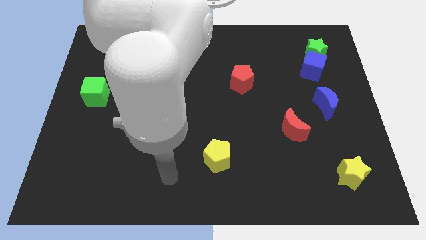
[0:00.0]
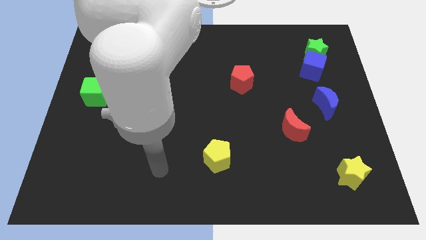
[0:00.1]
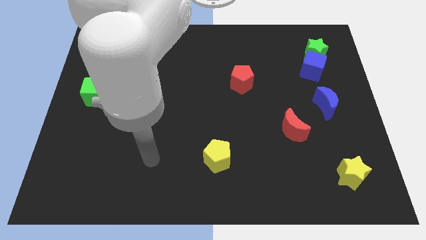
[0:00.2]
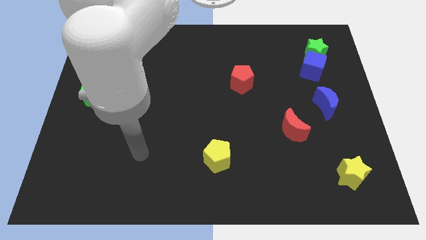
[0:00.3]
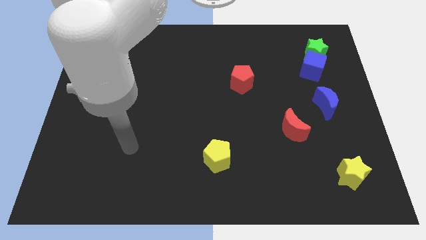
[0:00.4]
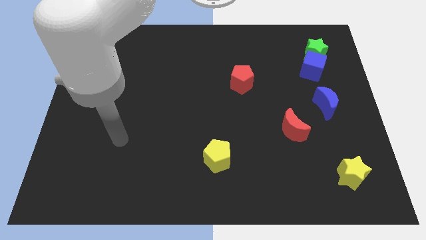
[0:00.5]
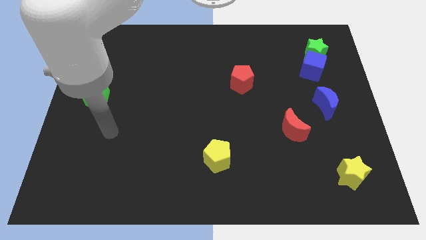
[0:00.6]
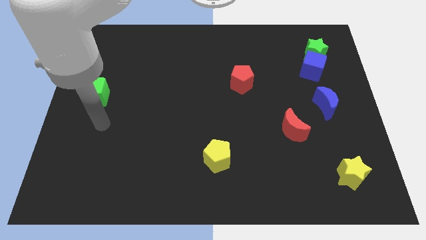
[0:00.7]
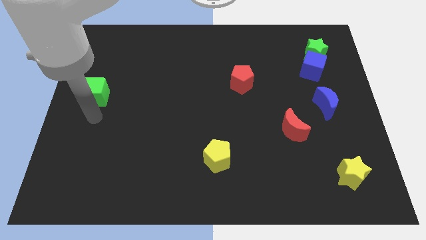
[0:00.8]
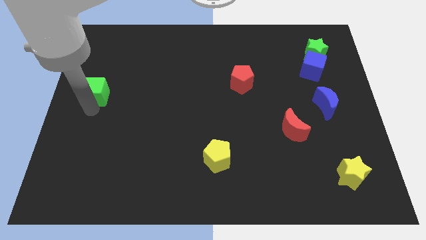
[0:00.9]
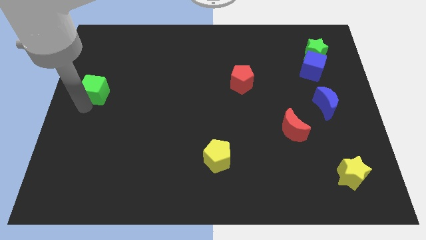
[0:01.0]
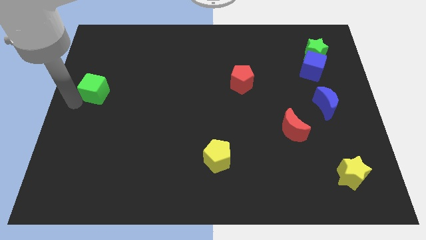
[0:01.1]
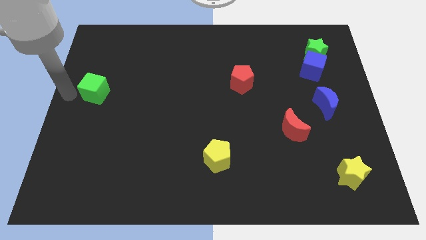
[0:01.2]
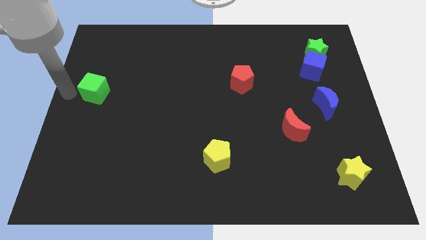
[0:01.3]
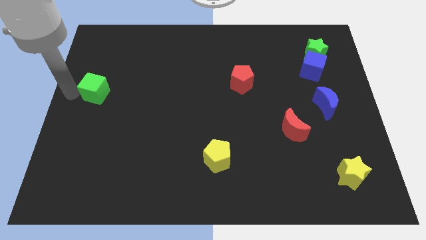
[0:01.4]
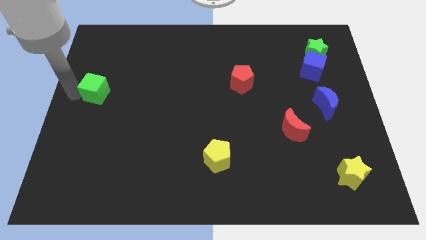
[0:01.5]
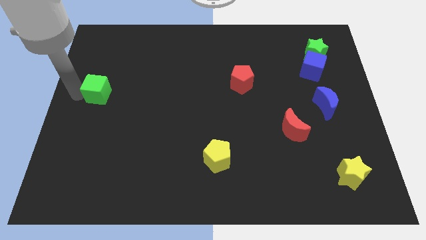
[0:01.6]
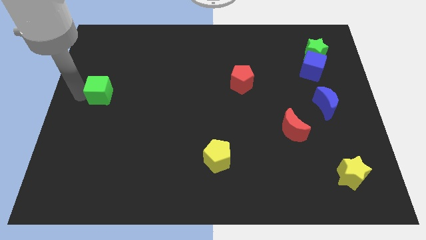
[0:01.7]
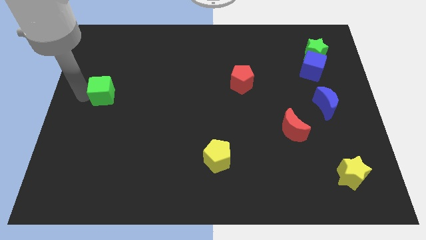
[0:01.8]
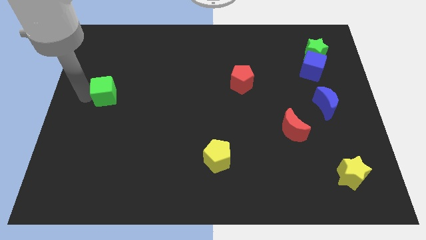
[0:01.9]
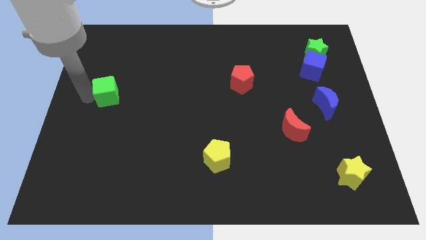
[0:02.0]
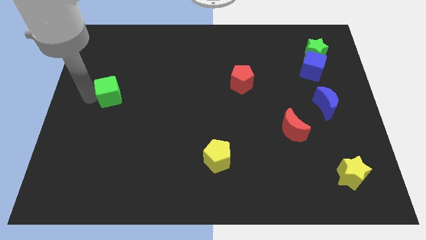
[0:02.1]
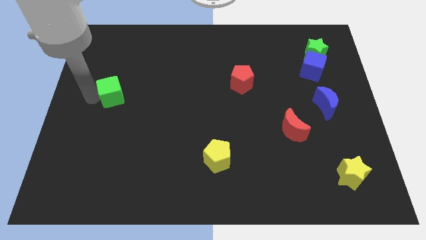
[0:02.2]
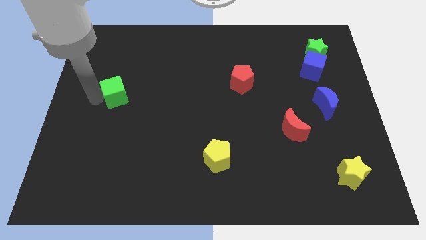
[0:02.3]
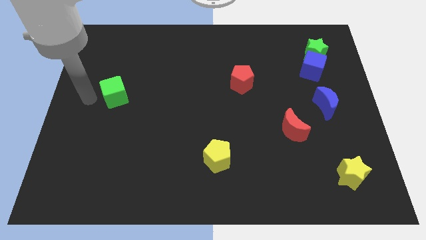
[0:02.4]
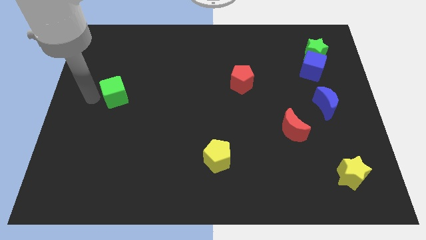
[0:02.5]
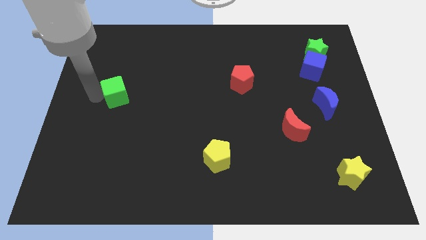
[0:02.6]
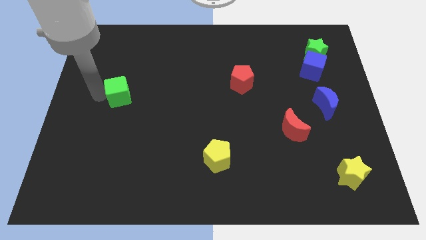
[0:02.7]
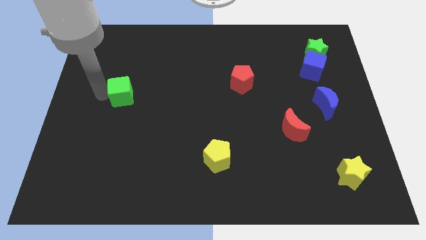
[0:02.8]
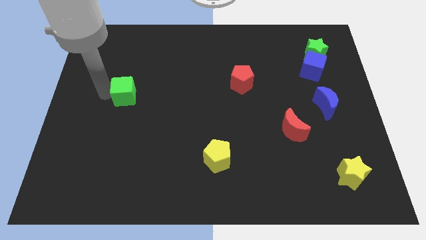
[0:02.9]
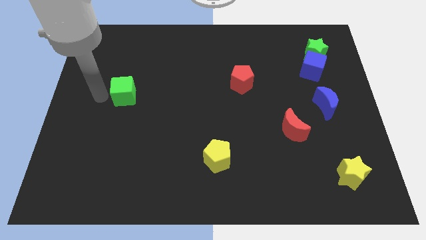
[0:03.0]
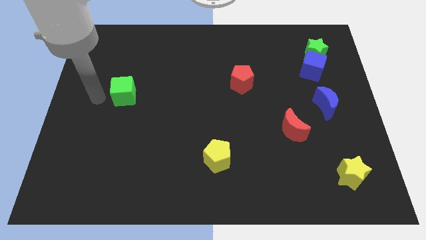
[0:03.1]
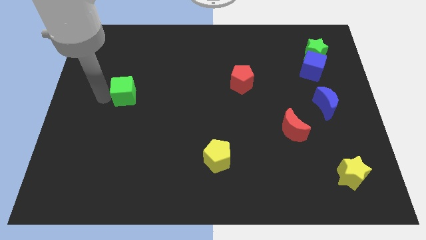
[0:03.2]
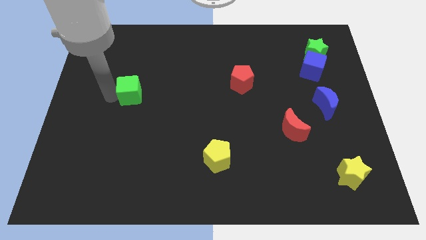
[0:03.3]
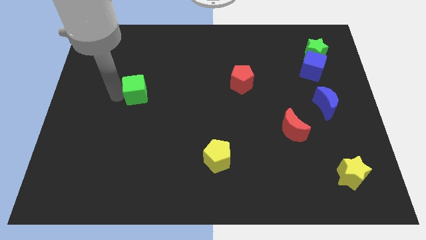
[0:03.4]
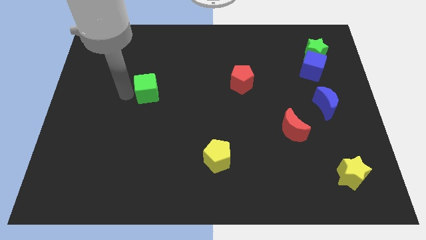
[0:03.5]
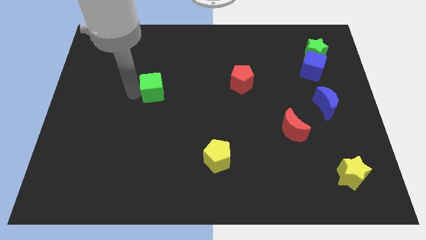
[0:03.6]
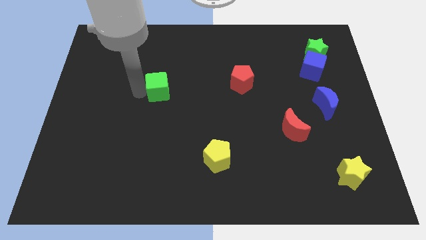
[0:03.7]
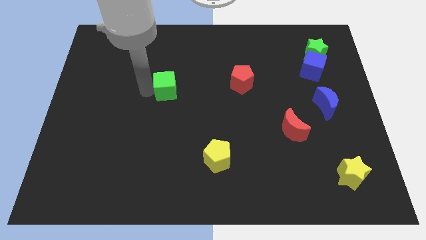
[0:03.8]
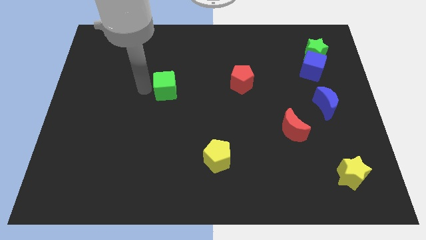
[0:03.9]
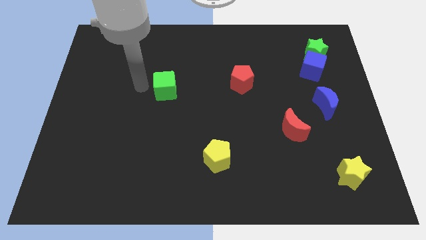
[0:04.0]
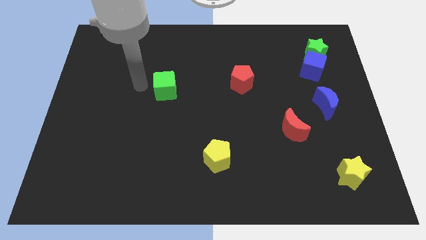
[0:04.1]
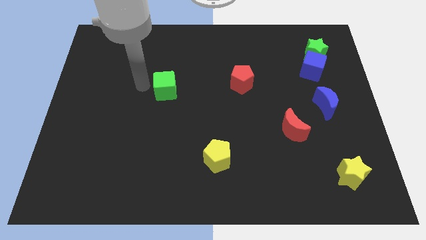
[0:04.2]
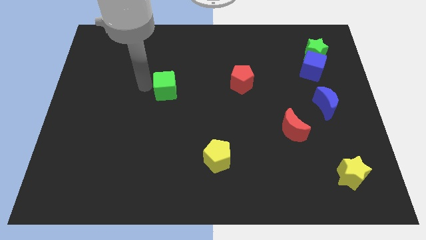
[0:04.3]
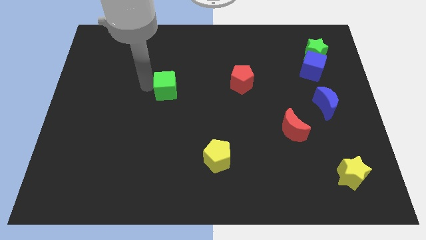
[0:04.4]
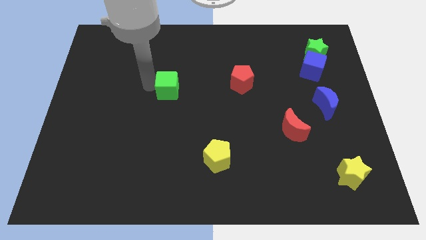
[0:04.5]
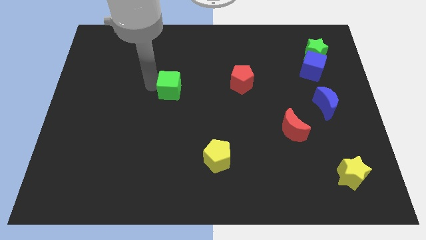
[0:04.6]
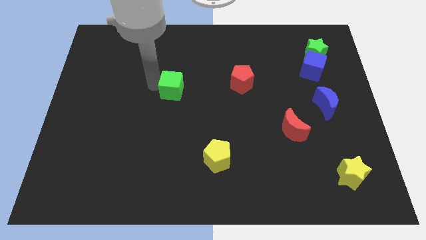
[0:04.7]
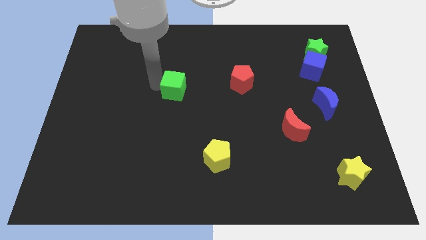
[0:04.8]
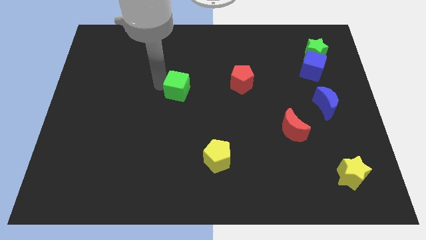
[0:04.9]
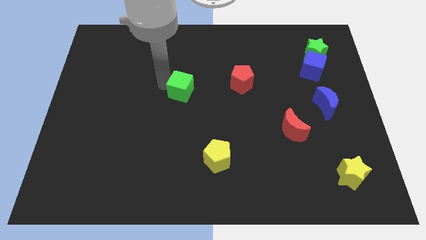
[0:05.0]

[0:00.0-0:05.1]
push the green cube right

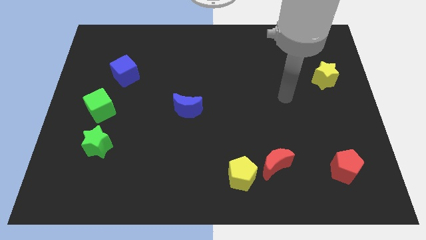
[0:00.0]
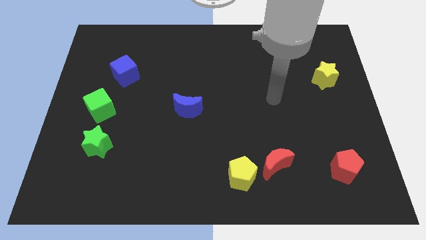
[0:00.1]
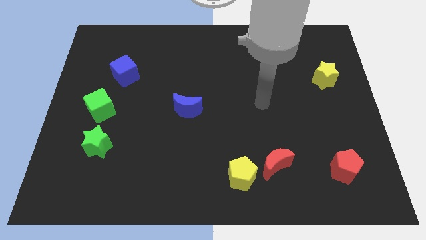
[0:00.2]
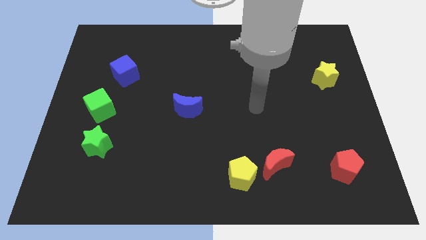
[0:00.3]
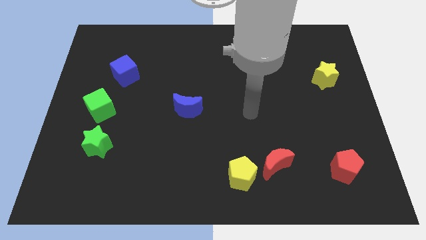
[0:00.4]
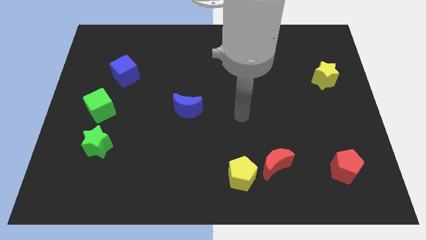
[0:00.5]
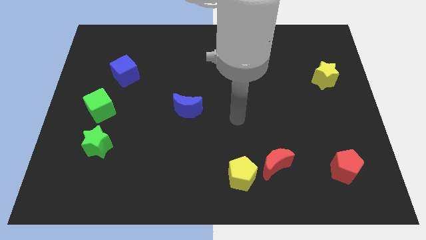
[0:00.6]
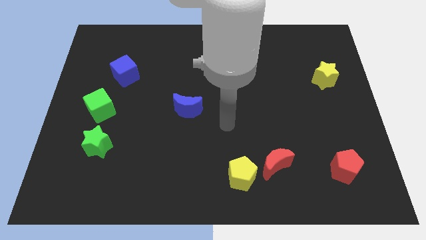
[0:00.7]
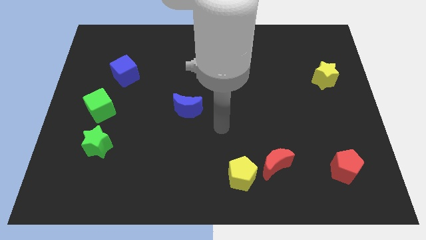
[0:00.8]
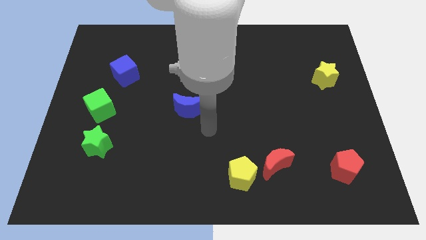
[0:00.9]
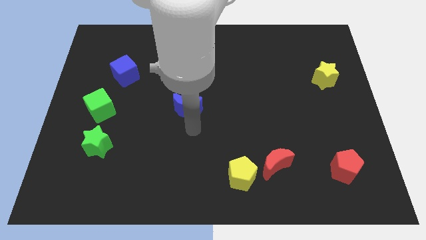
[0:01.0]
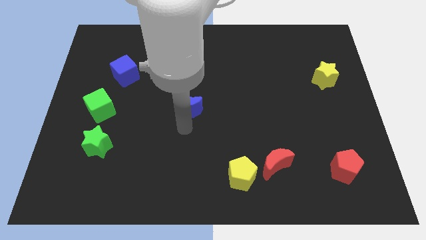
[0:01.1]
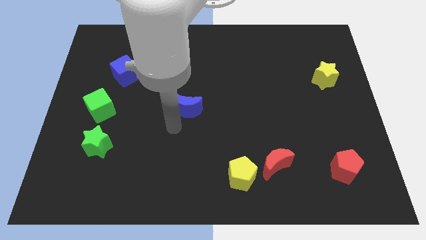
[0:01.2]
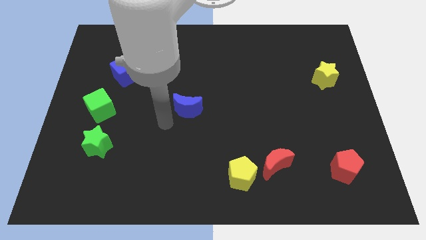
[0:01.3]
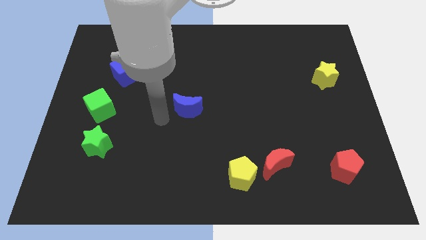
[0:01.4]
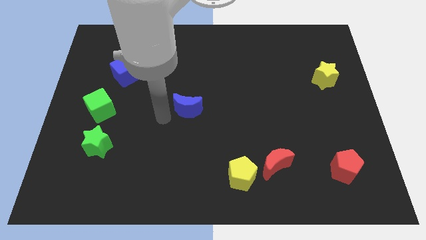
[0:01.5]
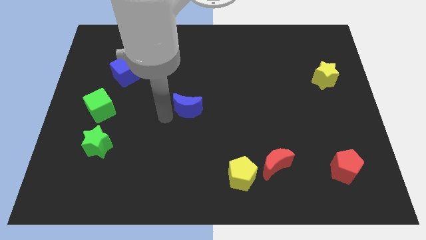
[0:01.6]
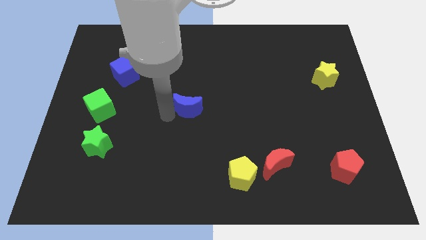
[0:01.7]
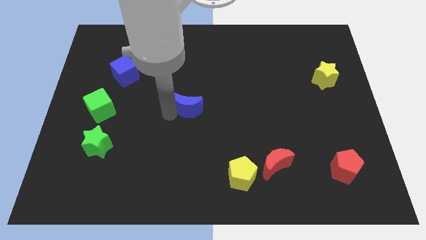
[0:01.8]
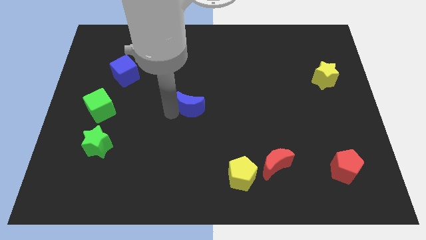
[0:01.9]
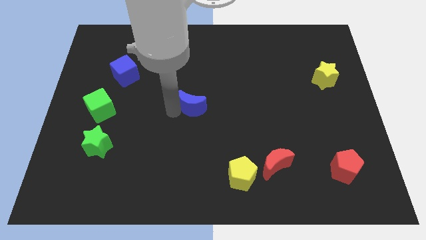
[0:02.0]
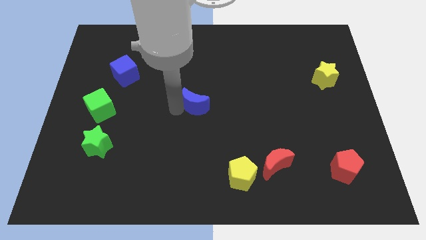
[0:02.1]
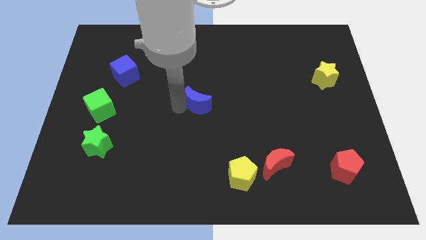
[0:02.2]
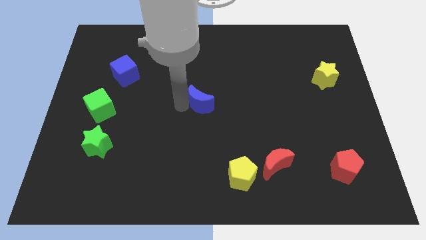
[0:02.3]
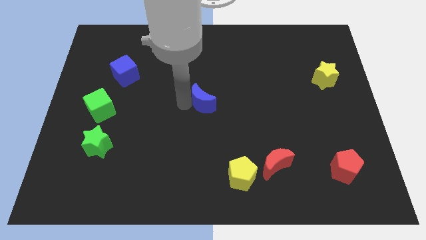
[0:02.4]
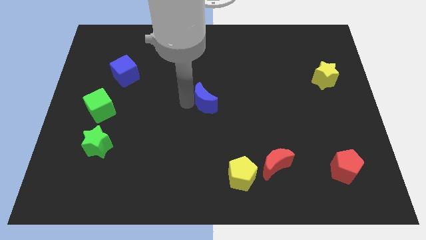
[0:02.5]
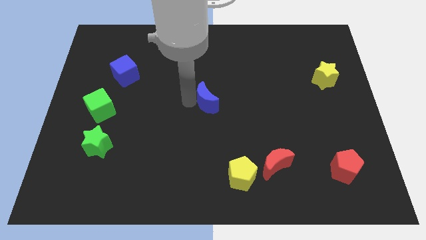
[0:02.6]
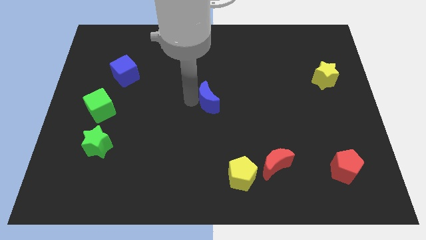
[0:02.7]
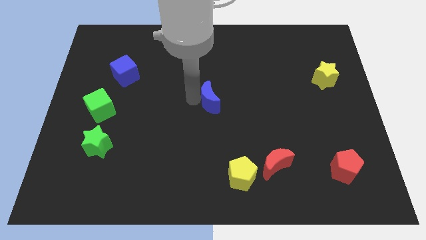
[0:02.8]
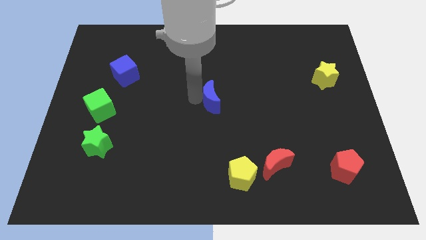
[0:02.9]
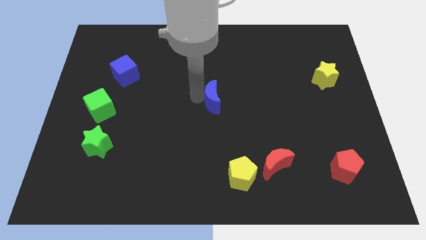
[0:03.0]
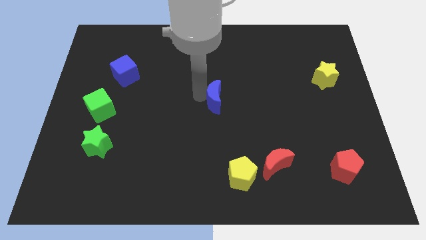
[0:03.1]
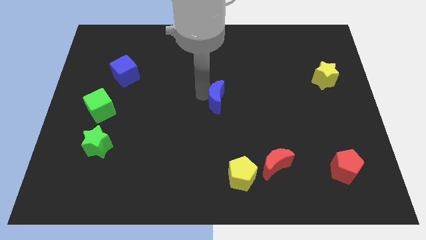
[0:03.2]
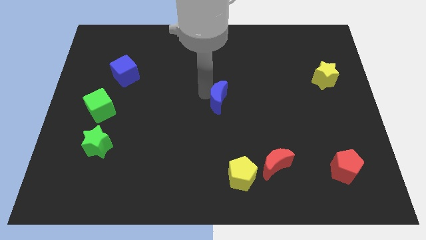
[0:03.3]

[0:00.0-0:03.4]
slightly move the blue moon to the right
